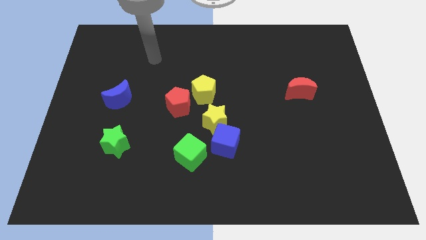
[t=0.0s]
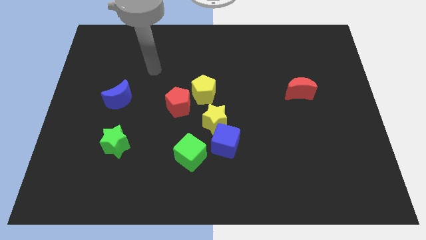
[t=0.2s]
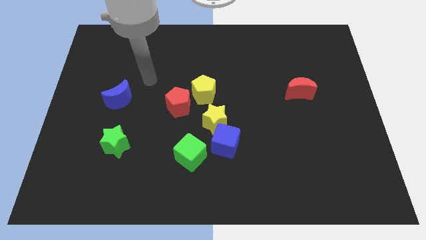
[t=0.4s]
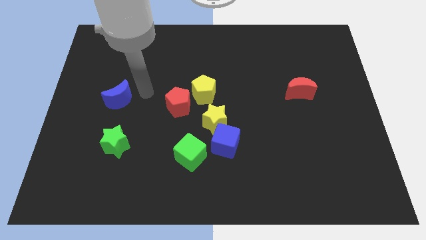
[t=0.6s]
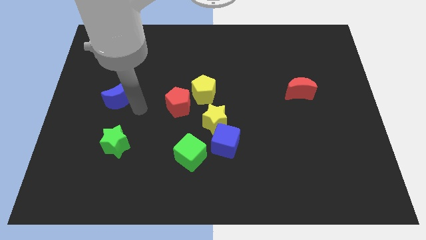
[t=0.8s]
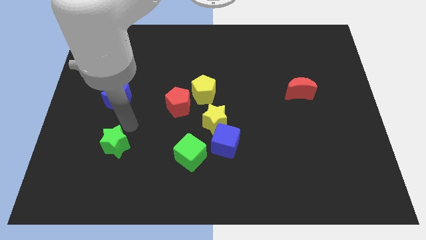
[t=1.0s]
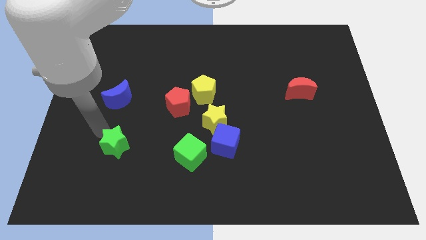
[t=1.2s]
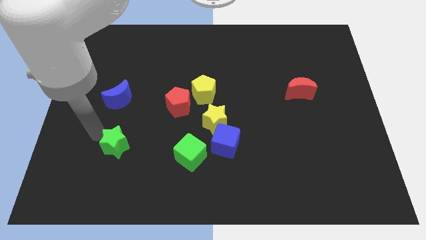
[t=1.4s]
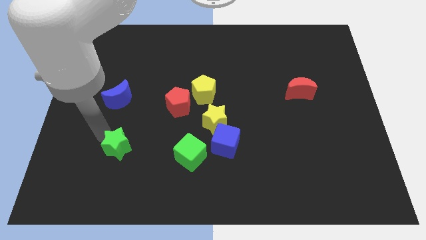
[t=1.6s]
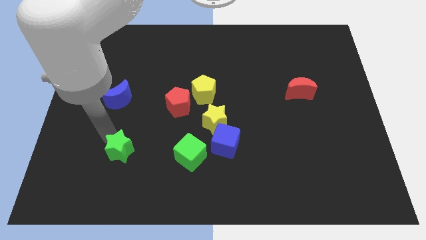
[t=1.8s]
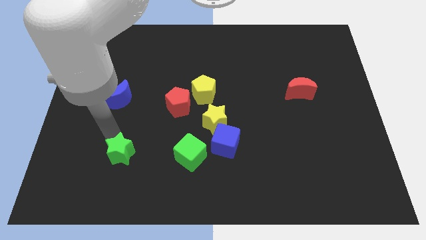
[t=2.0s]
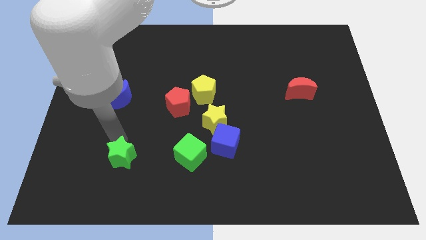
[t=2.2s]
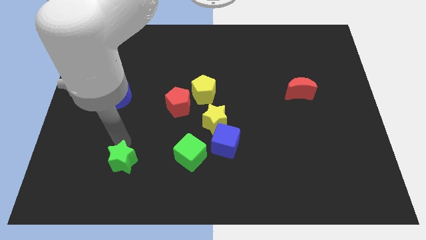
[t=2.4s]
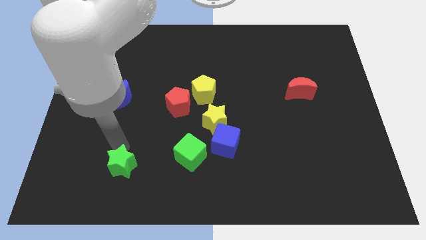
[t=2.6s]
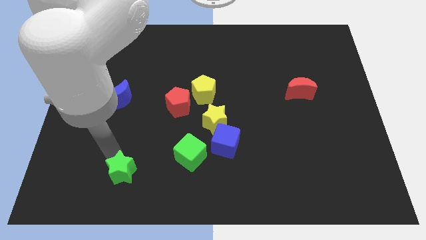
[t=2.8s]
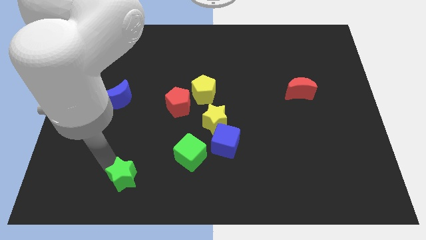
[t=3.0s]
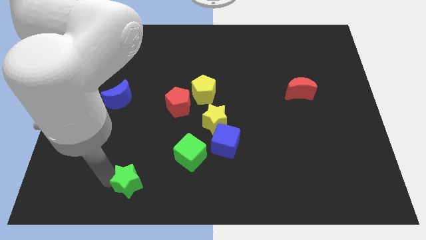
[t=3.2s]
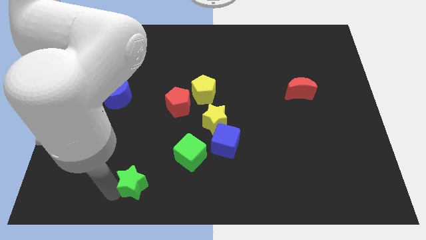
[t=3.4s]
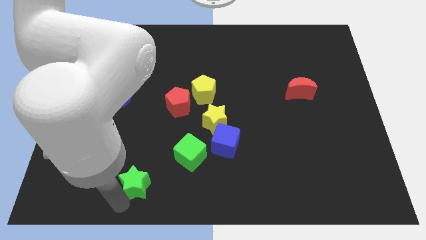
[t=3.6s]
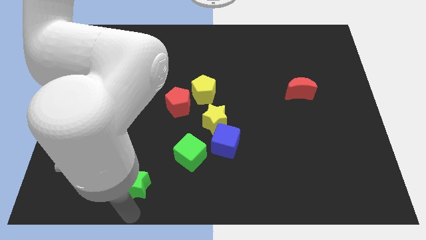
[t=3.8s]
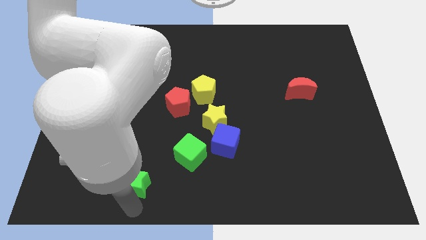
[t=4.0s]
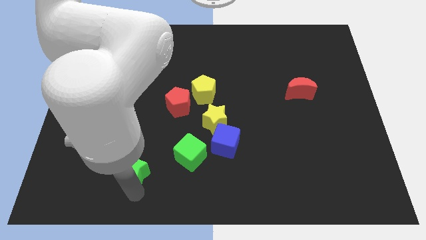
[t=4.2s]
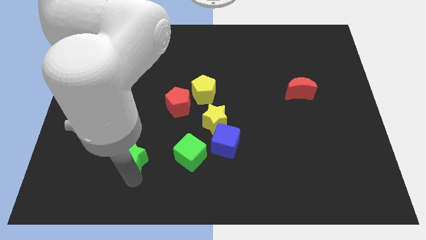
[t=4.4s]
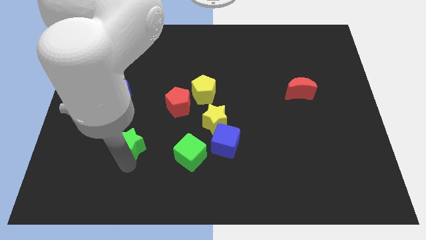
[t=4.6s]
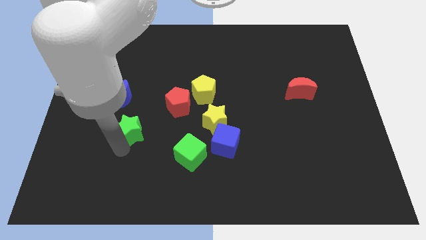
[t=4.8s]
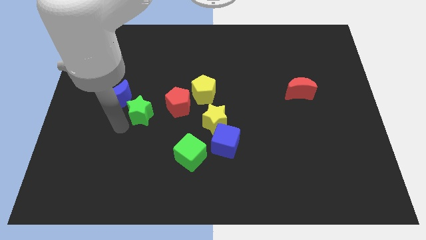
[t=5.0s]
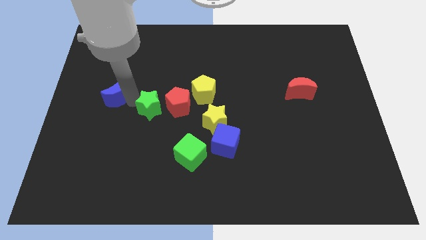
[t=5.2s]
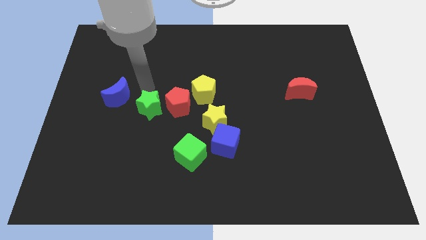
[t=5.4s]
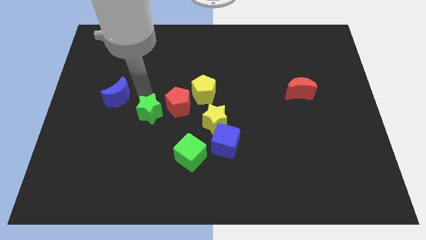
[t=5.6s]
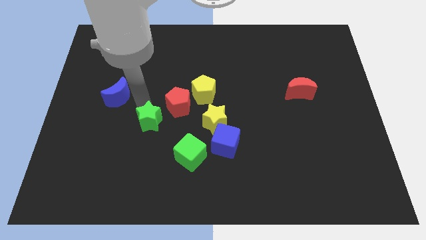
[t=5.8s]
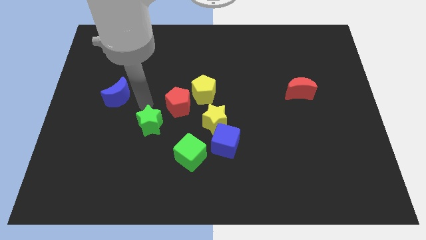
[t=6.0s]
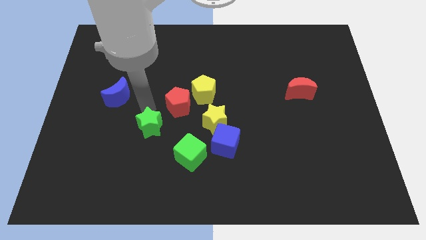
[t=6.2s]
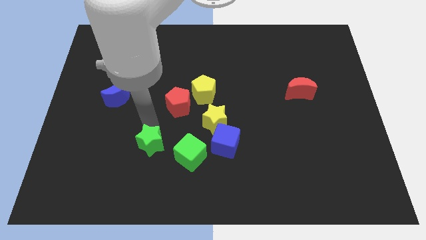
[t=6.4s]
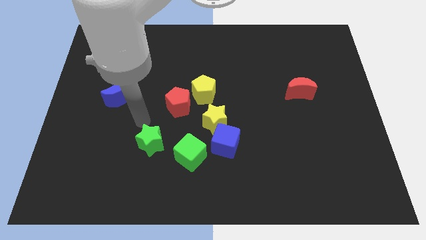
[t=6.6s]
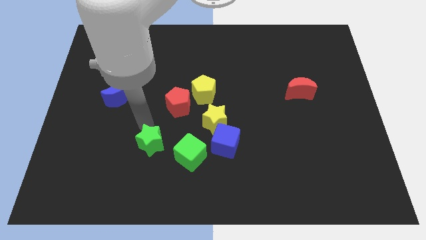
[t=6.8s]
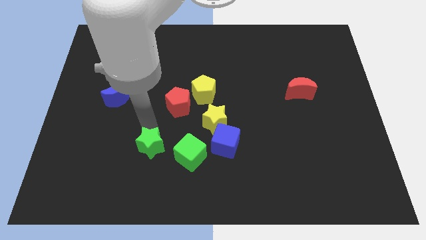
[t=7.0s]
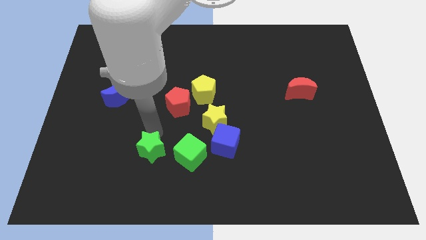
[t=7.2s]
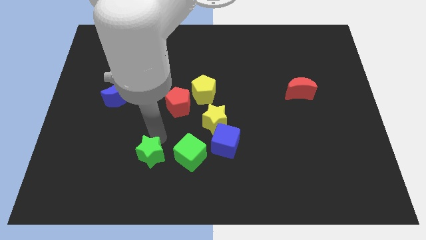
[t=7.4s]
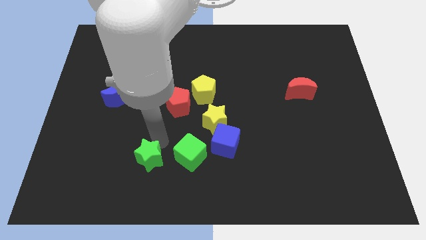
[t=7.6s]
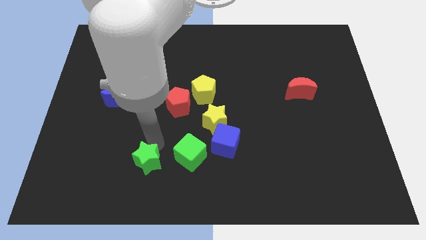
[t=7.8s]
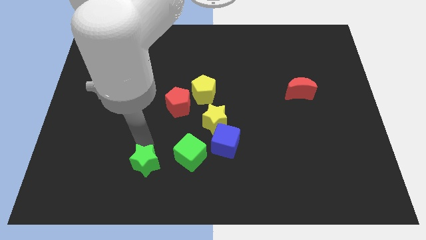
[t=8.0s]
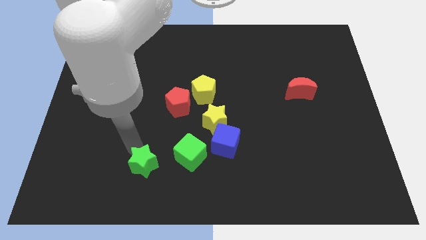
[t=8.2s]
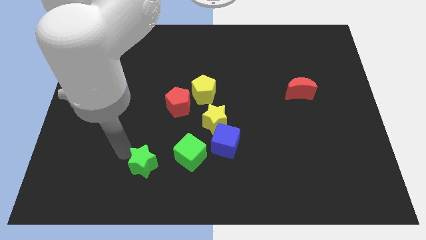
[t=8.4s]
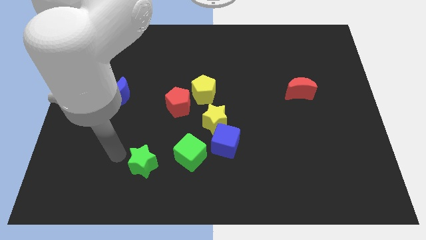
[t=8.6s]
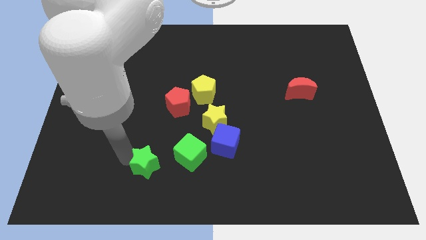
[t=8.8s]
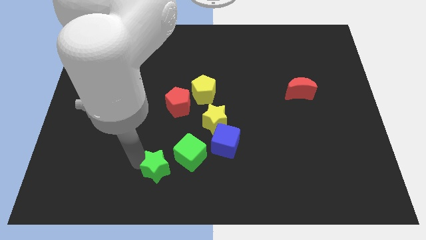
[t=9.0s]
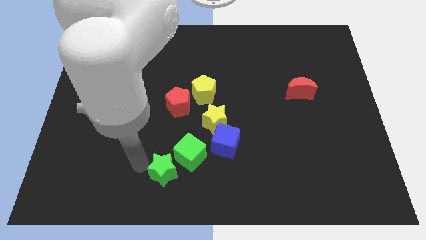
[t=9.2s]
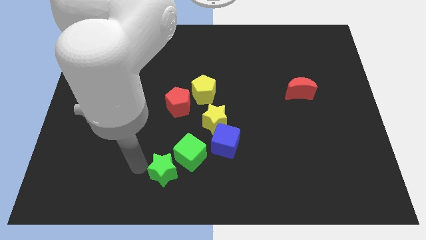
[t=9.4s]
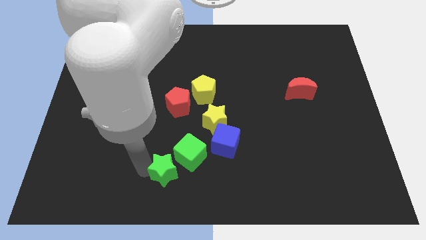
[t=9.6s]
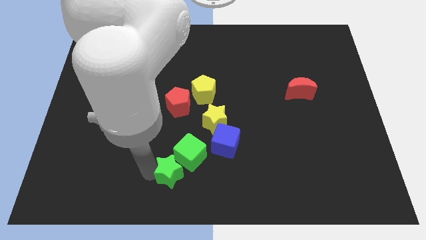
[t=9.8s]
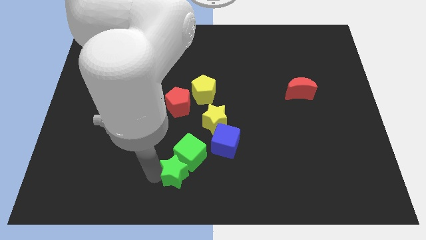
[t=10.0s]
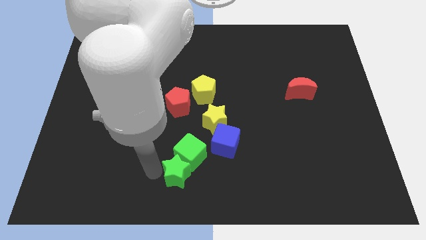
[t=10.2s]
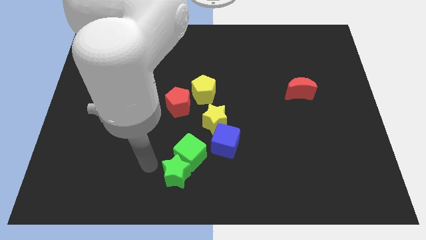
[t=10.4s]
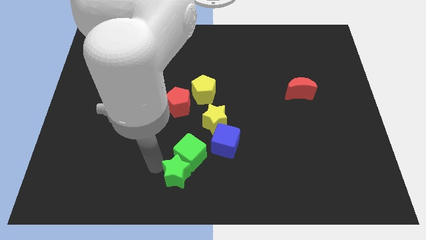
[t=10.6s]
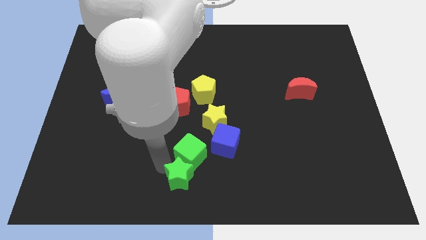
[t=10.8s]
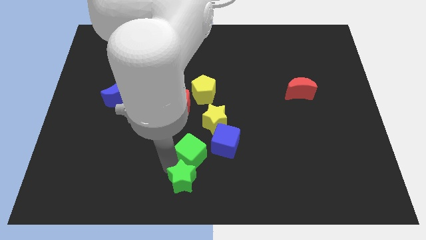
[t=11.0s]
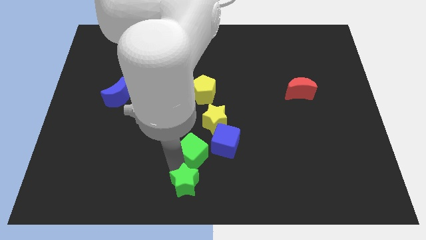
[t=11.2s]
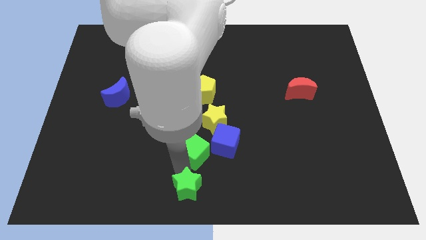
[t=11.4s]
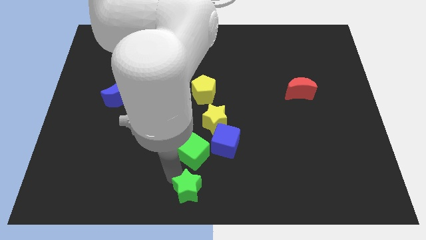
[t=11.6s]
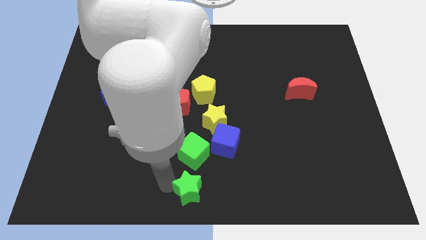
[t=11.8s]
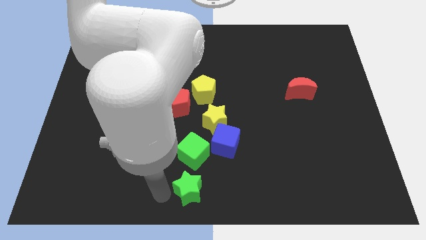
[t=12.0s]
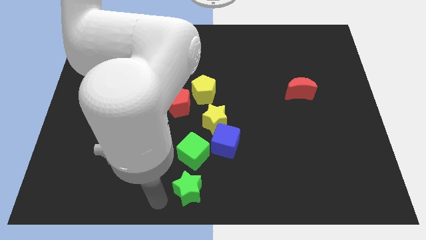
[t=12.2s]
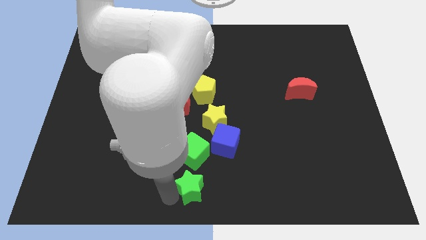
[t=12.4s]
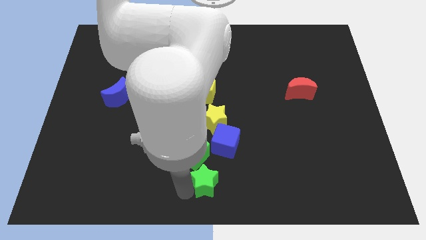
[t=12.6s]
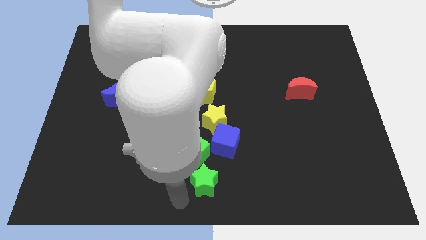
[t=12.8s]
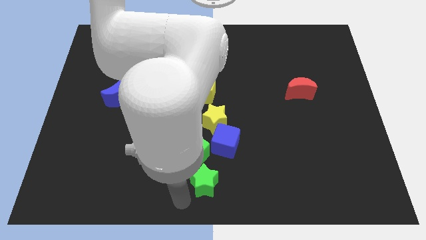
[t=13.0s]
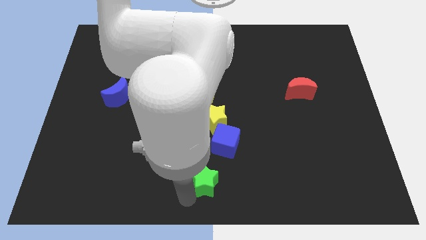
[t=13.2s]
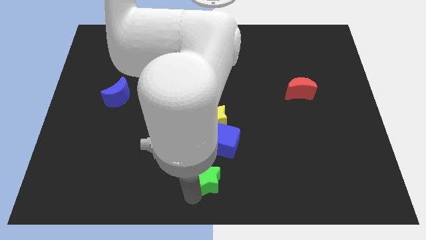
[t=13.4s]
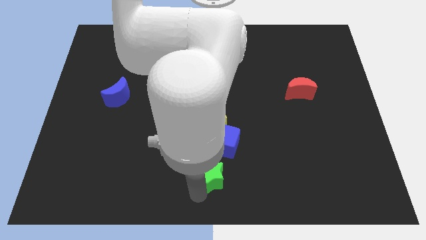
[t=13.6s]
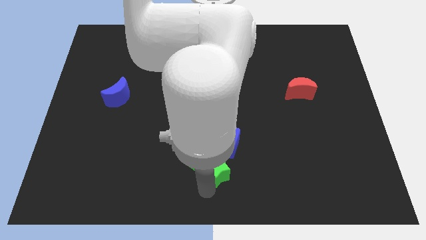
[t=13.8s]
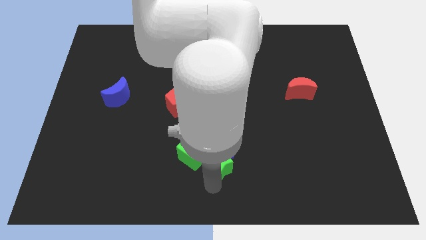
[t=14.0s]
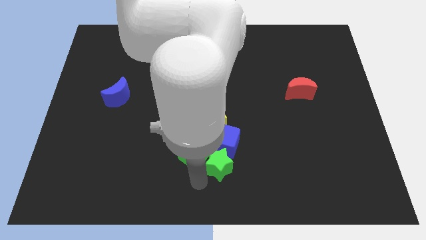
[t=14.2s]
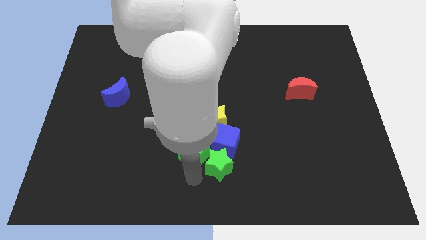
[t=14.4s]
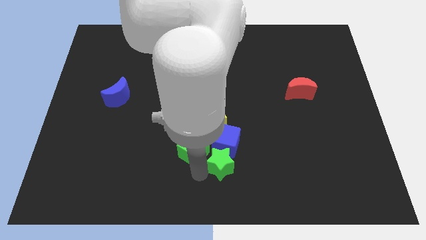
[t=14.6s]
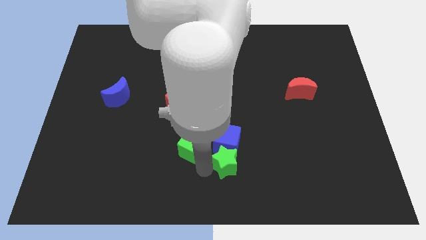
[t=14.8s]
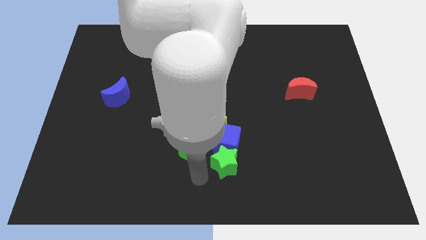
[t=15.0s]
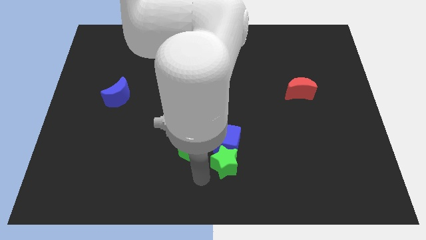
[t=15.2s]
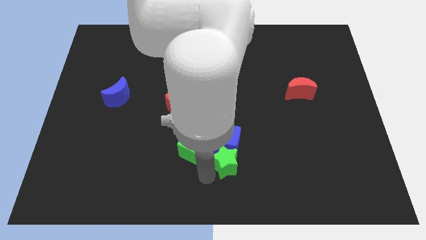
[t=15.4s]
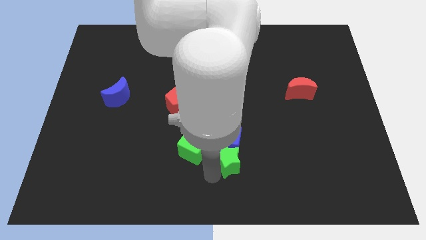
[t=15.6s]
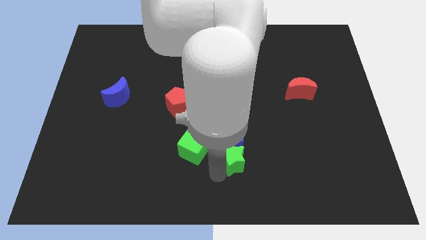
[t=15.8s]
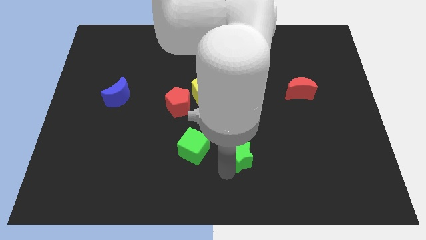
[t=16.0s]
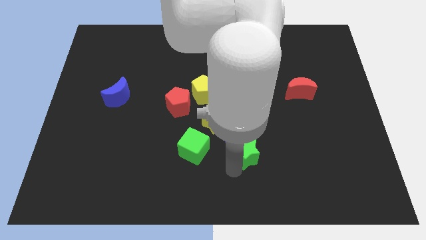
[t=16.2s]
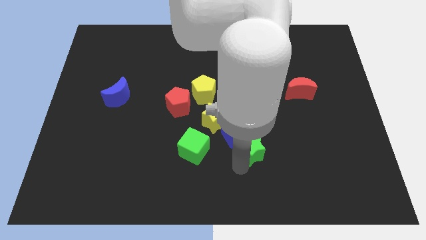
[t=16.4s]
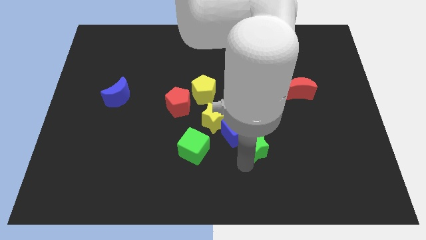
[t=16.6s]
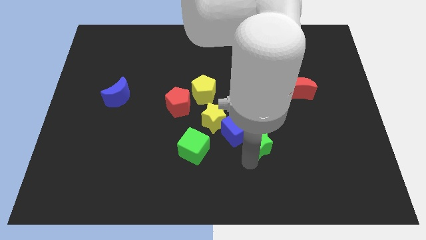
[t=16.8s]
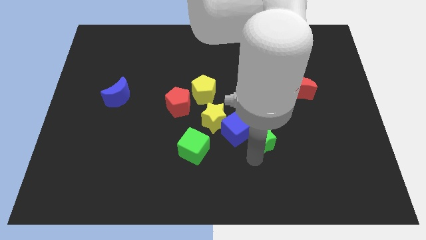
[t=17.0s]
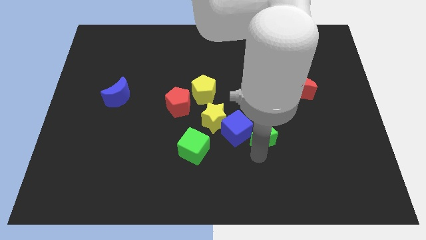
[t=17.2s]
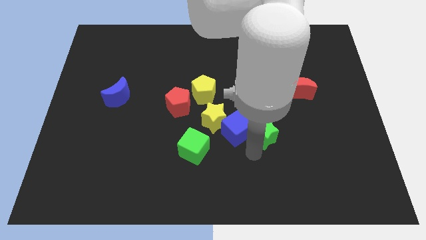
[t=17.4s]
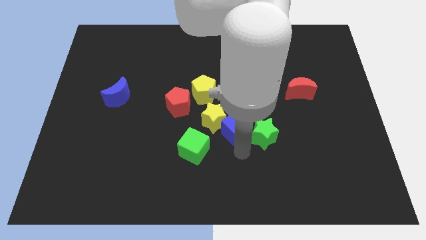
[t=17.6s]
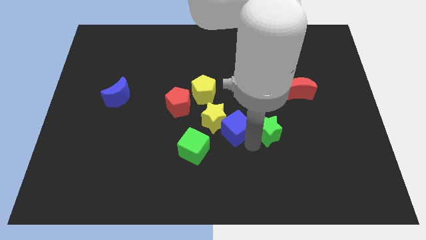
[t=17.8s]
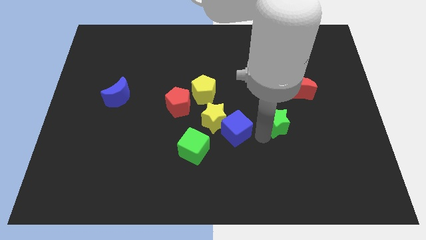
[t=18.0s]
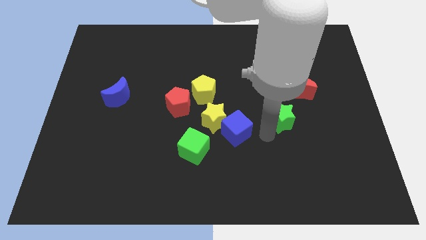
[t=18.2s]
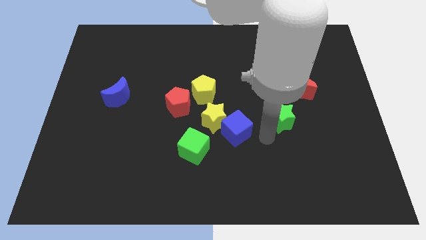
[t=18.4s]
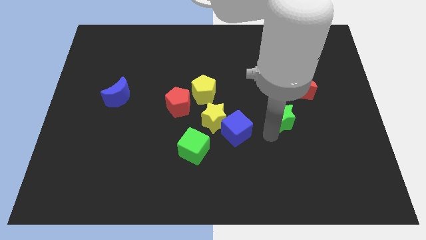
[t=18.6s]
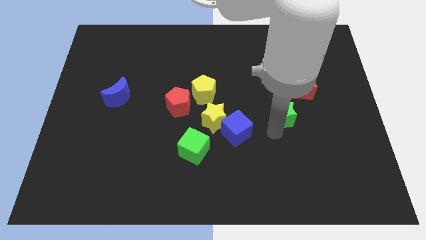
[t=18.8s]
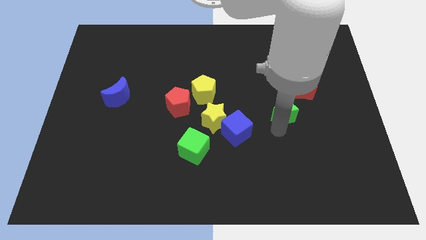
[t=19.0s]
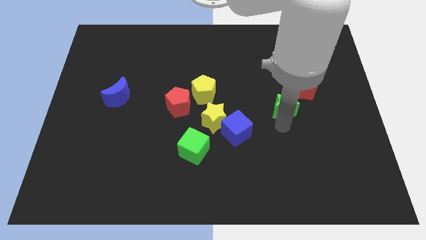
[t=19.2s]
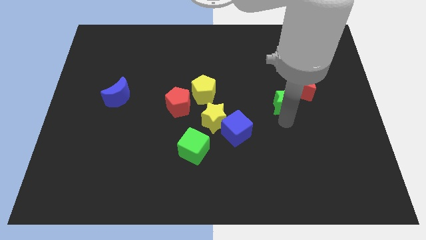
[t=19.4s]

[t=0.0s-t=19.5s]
push the green star to the red moon
